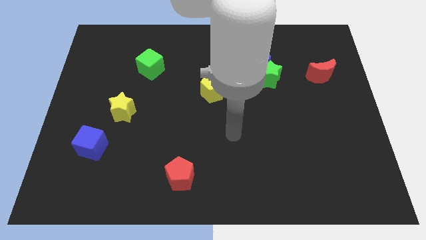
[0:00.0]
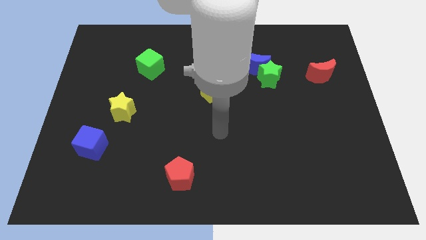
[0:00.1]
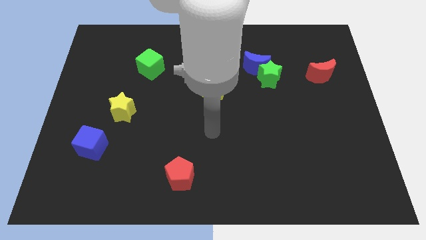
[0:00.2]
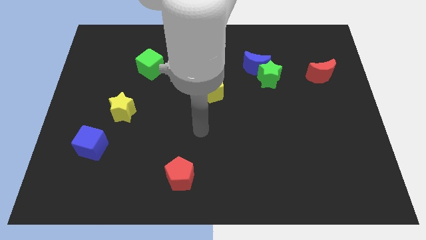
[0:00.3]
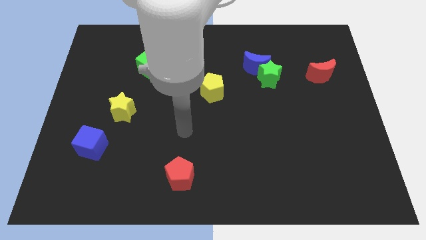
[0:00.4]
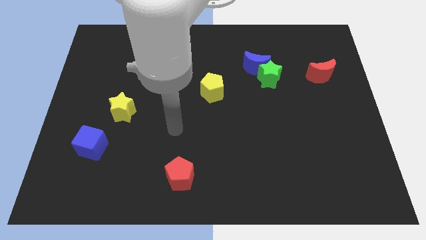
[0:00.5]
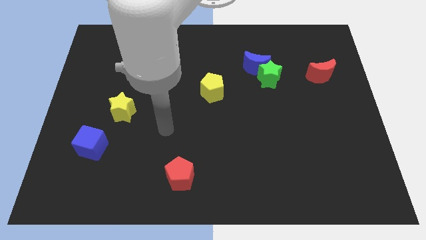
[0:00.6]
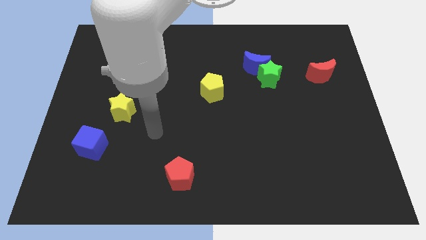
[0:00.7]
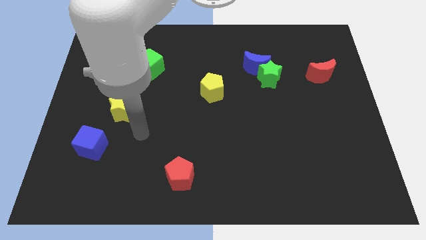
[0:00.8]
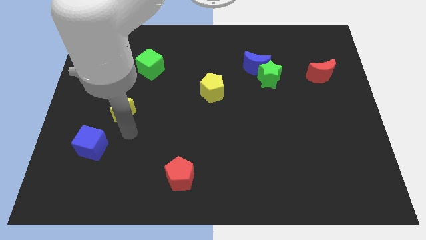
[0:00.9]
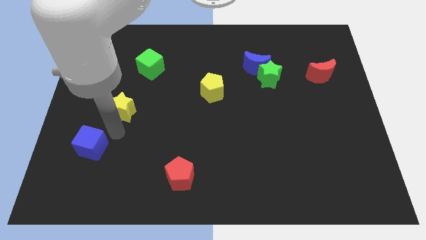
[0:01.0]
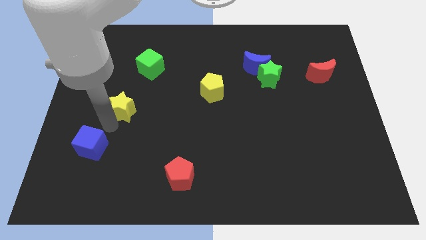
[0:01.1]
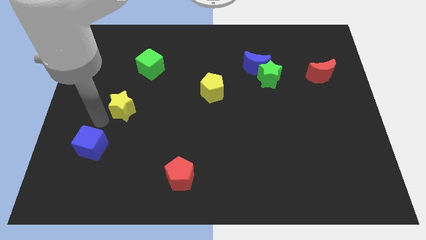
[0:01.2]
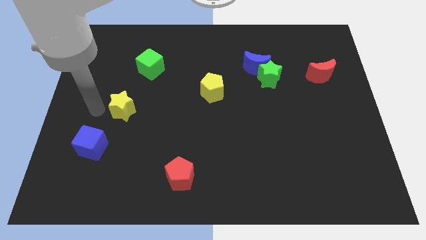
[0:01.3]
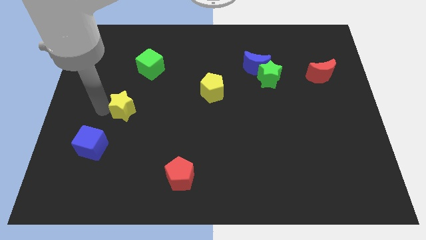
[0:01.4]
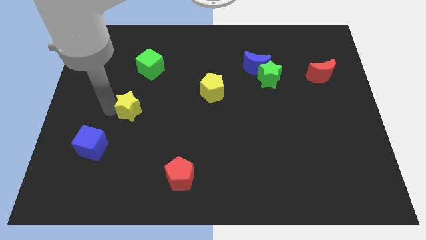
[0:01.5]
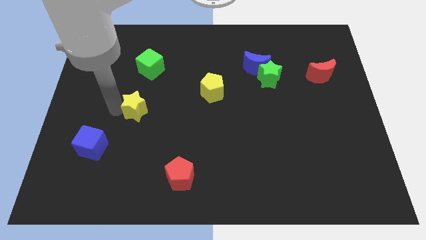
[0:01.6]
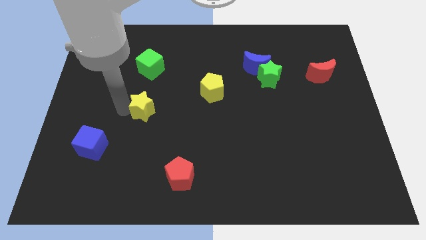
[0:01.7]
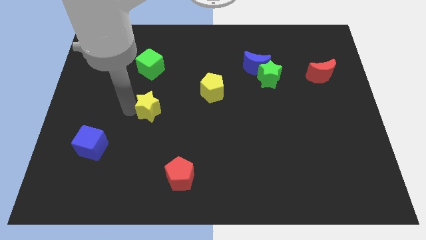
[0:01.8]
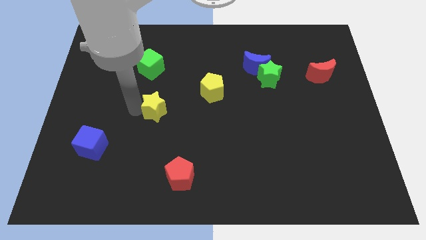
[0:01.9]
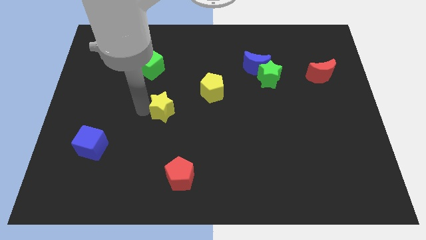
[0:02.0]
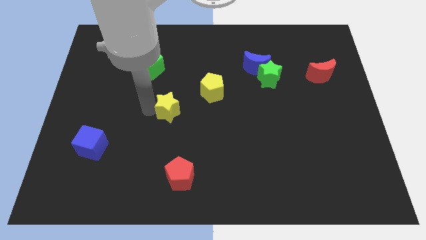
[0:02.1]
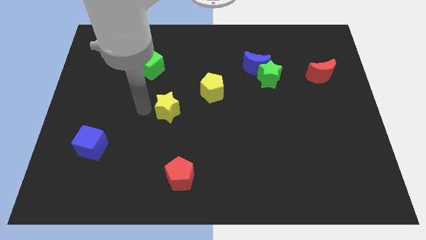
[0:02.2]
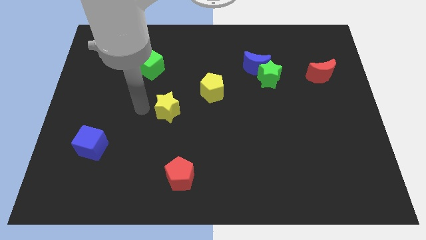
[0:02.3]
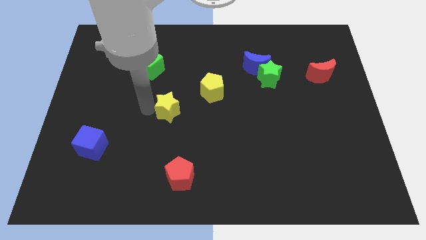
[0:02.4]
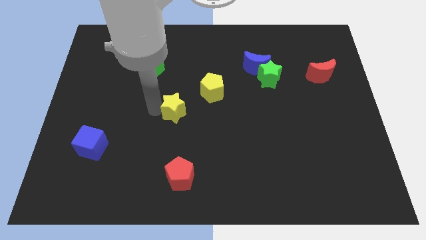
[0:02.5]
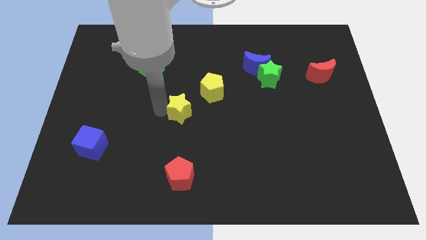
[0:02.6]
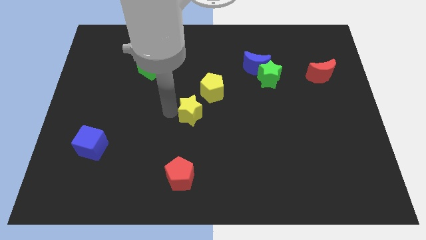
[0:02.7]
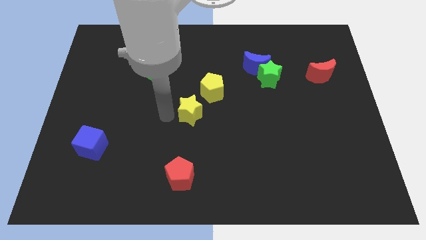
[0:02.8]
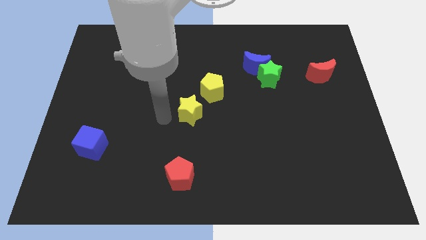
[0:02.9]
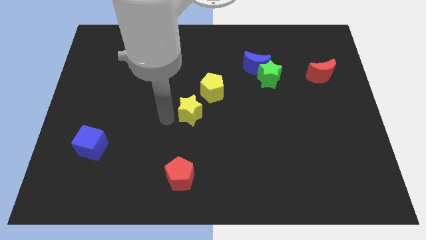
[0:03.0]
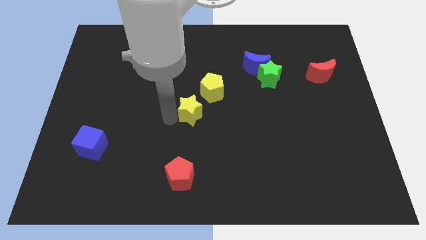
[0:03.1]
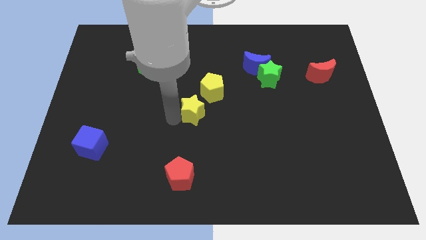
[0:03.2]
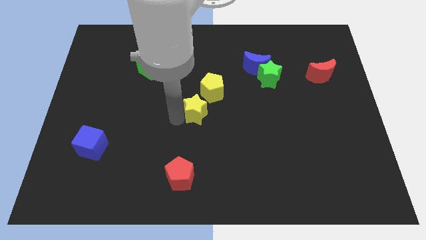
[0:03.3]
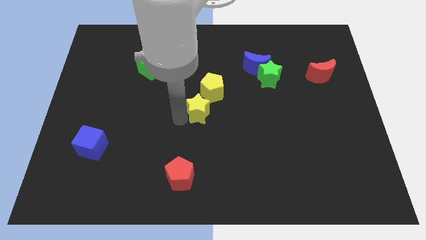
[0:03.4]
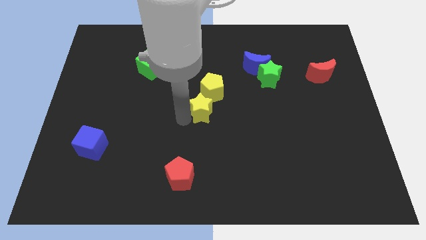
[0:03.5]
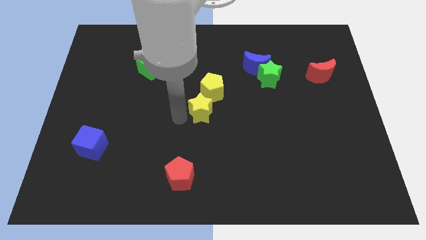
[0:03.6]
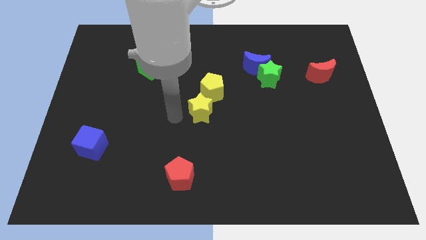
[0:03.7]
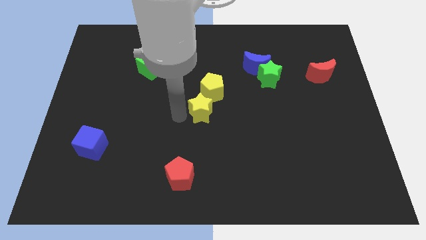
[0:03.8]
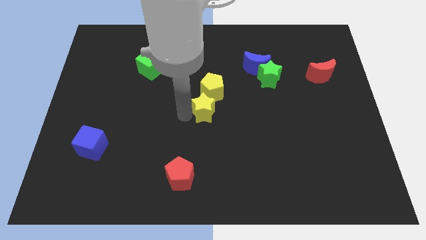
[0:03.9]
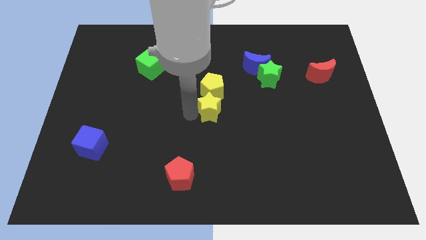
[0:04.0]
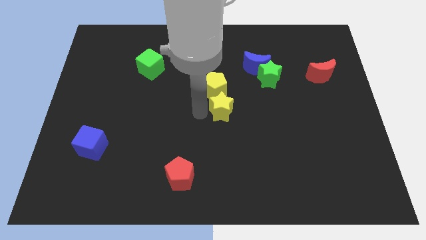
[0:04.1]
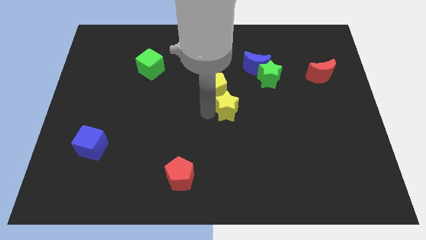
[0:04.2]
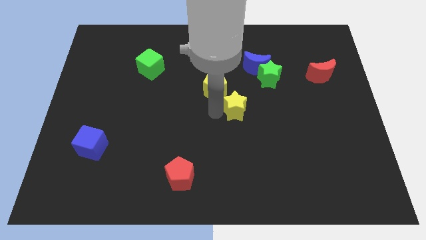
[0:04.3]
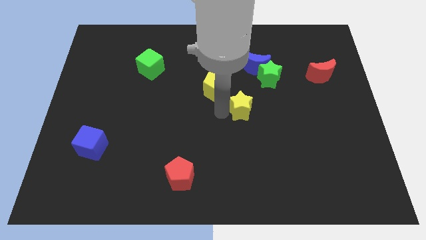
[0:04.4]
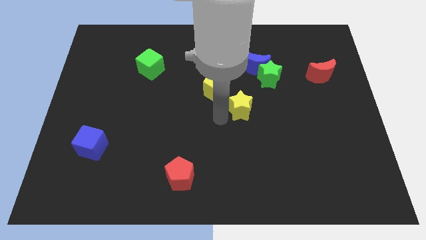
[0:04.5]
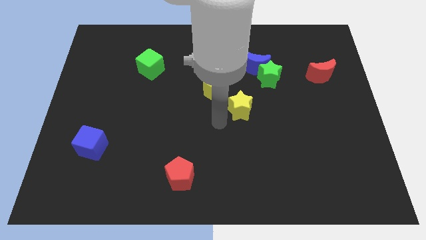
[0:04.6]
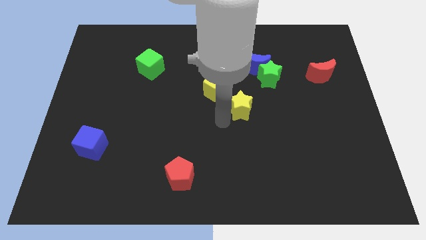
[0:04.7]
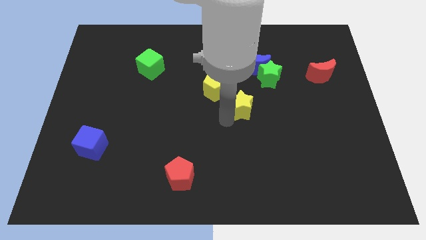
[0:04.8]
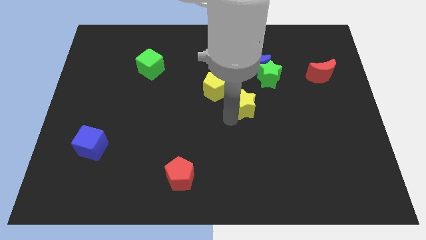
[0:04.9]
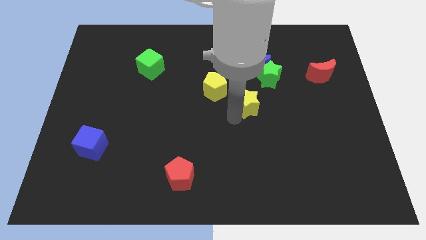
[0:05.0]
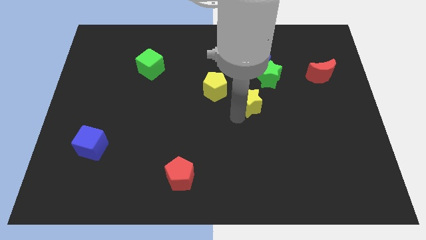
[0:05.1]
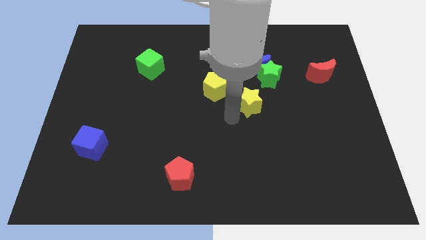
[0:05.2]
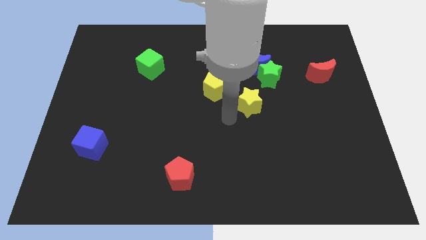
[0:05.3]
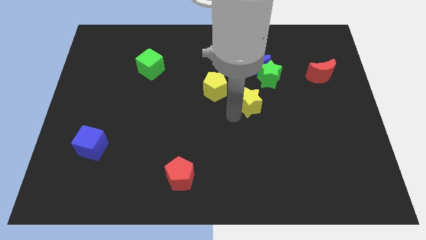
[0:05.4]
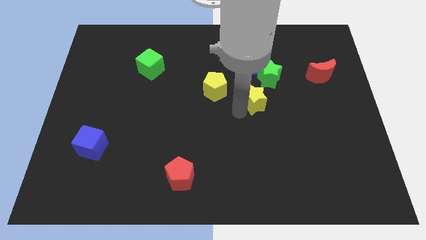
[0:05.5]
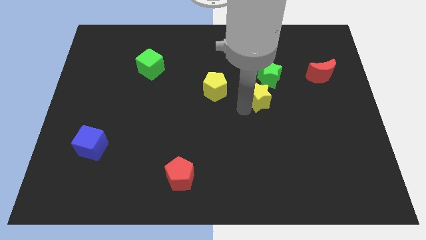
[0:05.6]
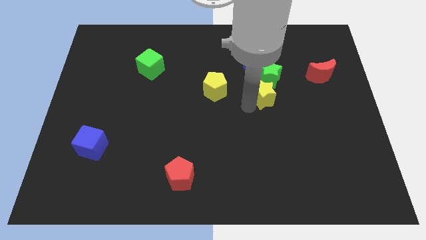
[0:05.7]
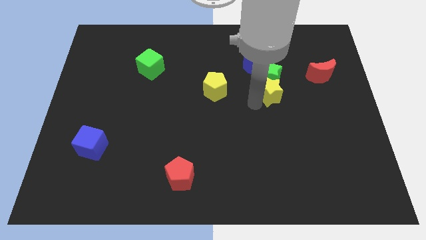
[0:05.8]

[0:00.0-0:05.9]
slide the yellow star to the bottom right side of the blue moon

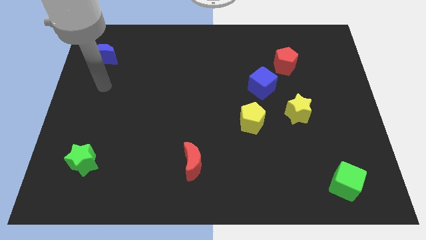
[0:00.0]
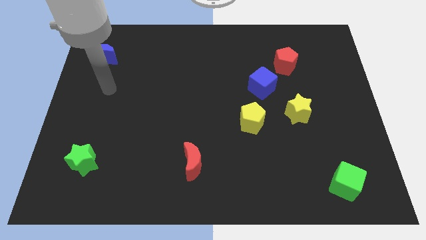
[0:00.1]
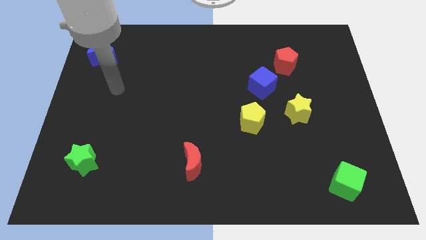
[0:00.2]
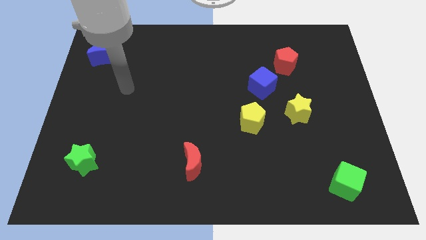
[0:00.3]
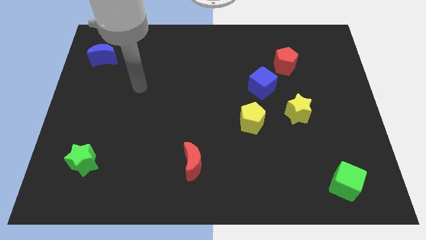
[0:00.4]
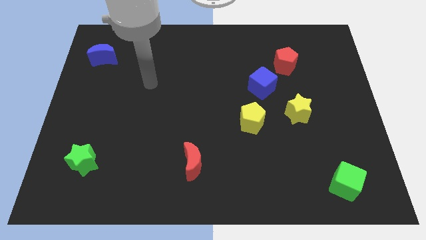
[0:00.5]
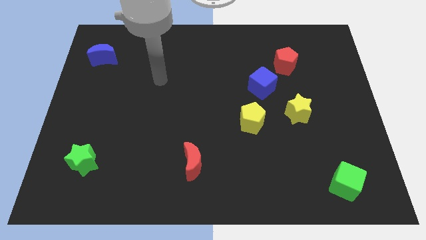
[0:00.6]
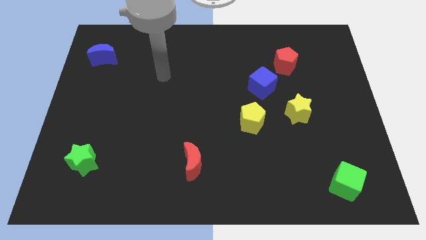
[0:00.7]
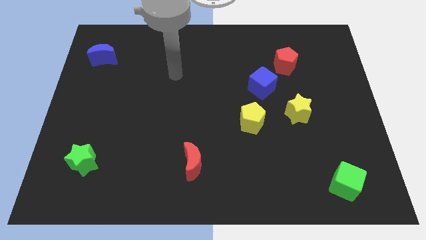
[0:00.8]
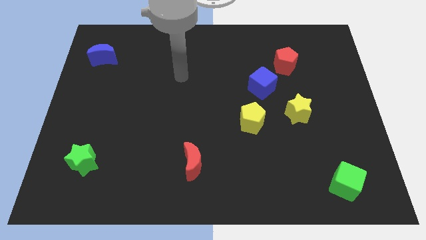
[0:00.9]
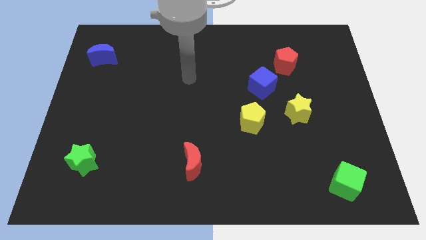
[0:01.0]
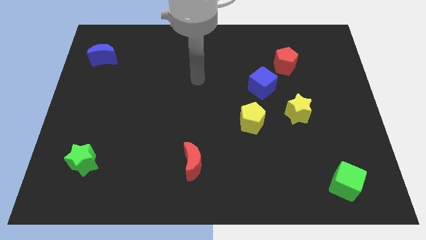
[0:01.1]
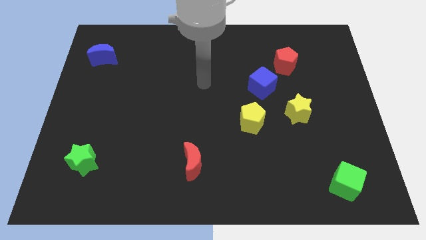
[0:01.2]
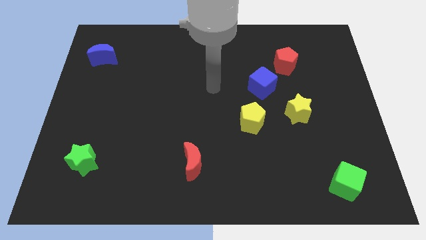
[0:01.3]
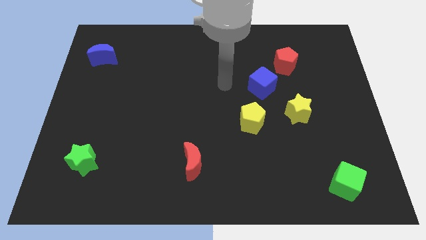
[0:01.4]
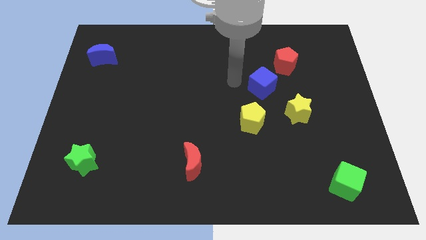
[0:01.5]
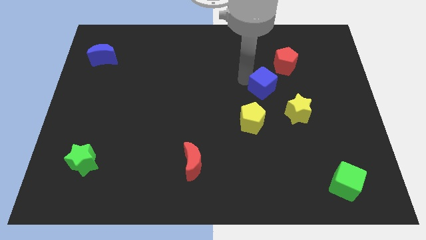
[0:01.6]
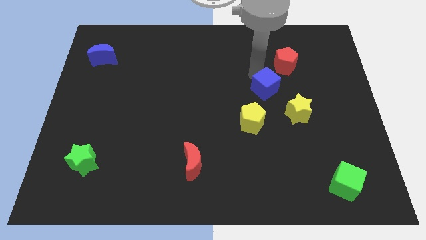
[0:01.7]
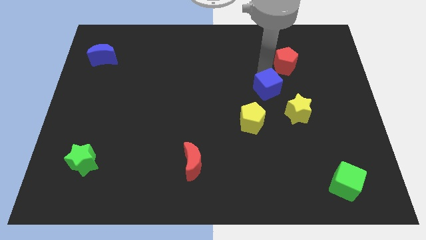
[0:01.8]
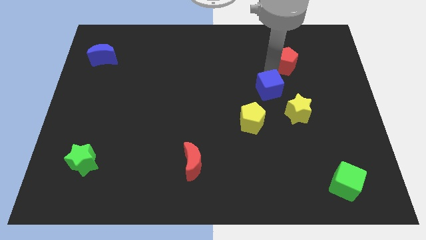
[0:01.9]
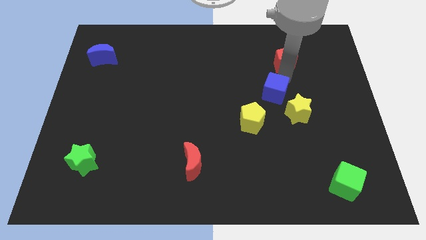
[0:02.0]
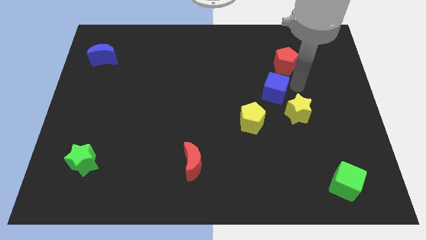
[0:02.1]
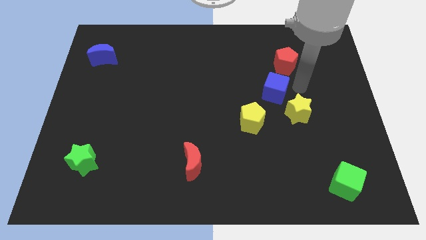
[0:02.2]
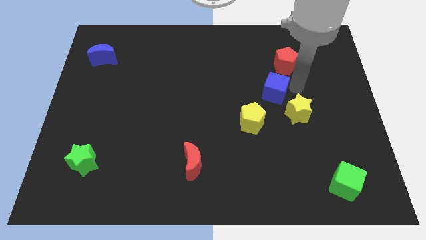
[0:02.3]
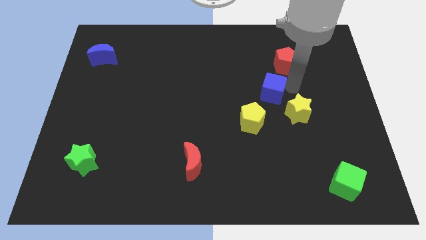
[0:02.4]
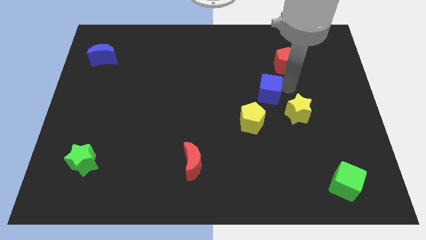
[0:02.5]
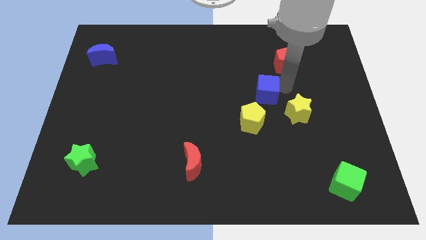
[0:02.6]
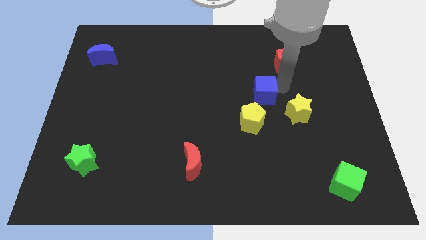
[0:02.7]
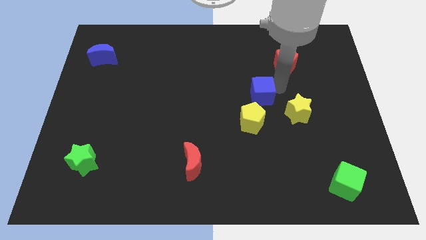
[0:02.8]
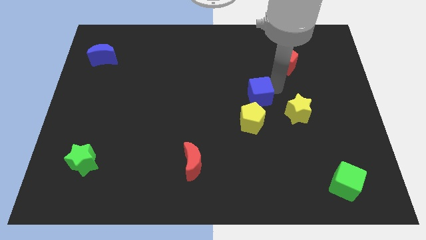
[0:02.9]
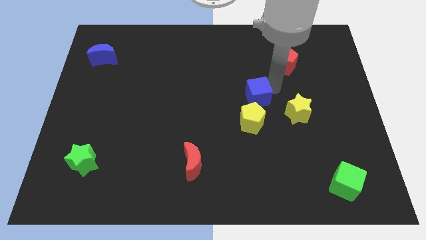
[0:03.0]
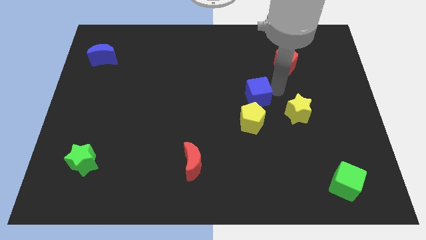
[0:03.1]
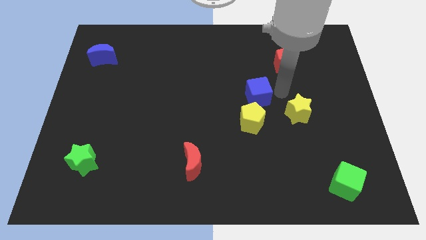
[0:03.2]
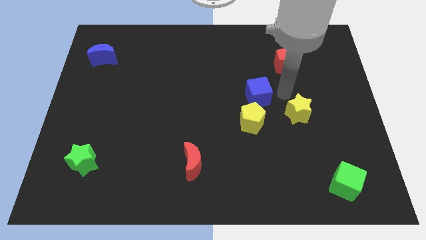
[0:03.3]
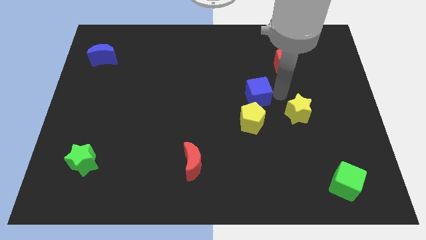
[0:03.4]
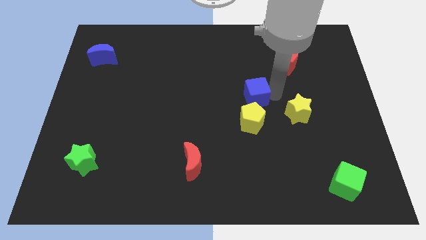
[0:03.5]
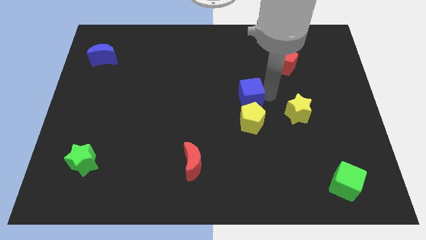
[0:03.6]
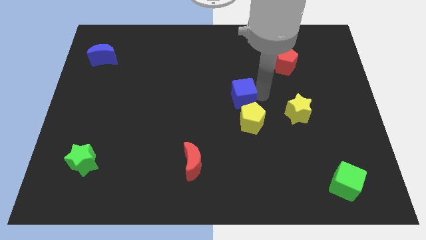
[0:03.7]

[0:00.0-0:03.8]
slide the blue cube to the top left side of the yellow pentagon
